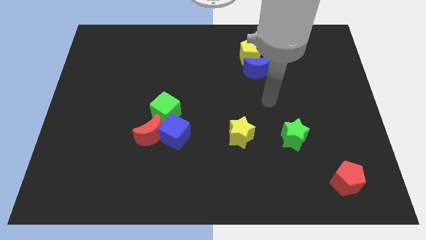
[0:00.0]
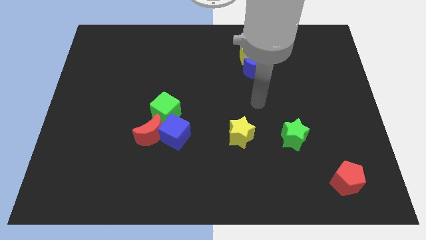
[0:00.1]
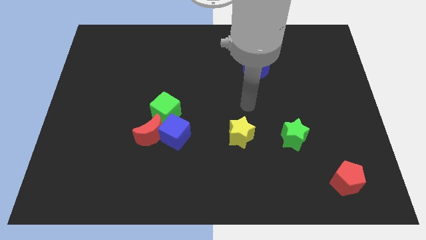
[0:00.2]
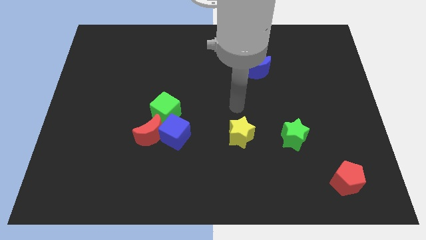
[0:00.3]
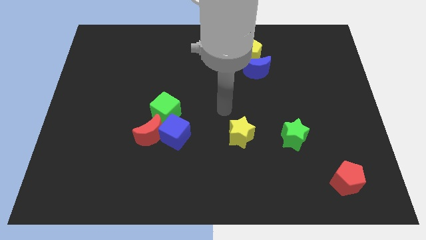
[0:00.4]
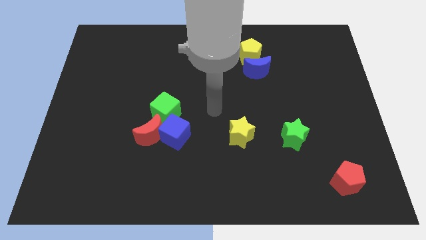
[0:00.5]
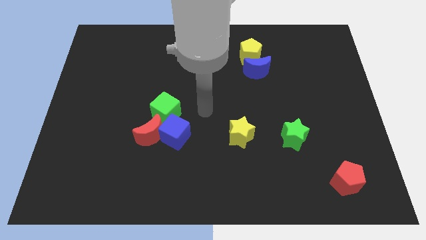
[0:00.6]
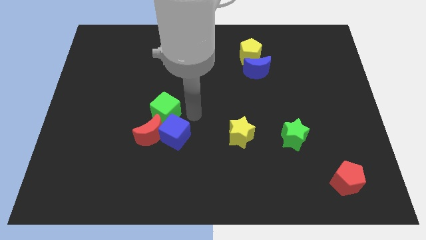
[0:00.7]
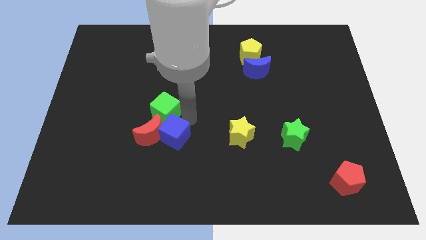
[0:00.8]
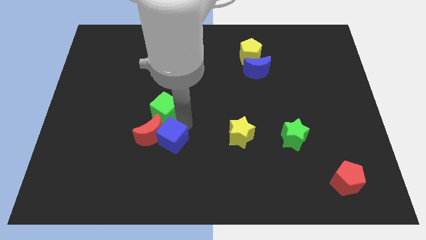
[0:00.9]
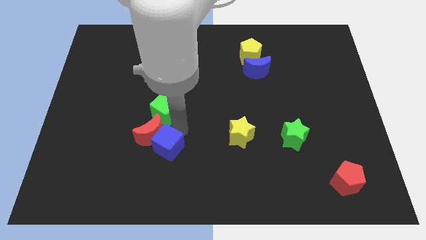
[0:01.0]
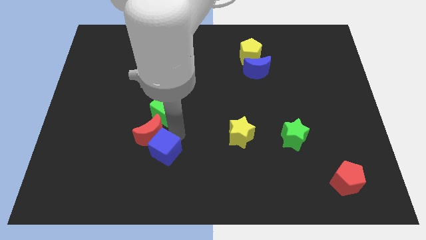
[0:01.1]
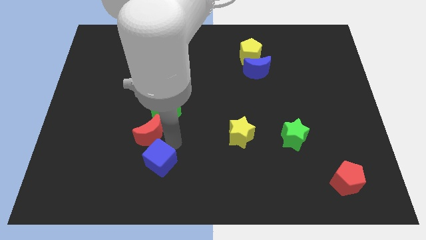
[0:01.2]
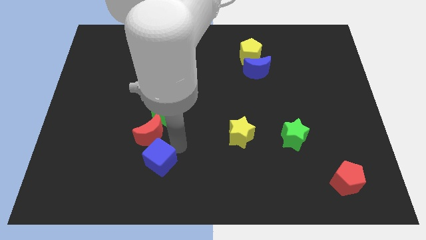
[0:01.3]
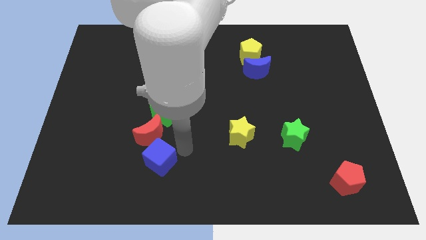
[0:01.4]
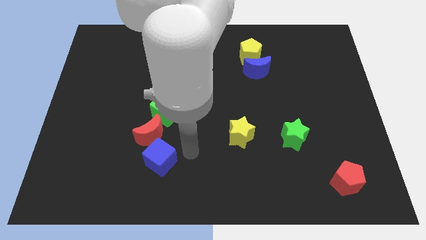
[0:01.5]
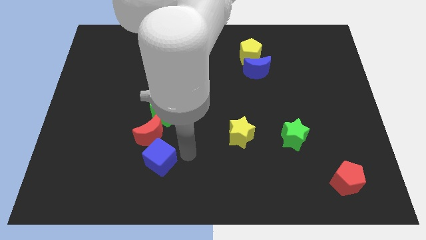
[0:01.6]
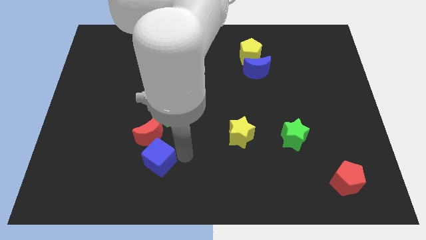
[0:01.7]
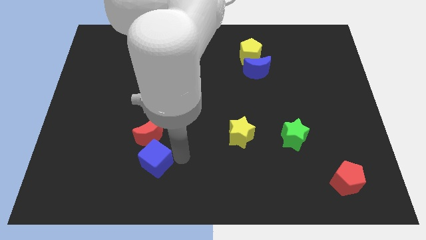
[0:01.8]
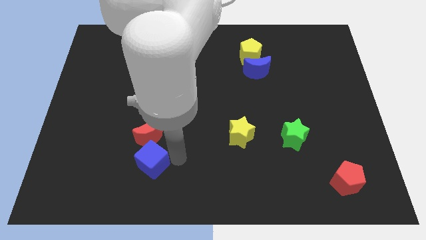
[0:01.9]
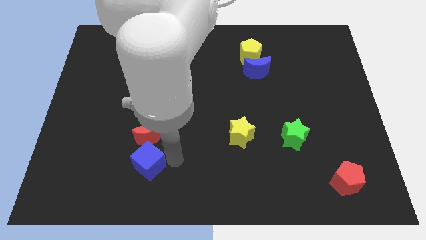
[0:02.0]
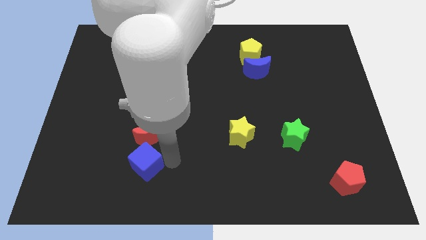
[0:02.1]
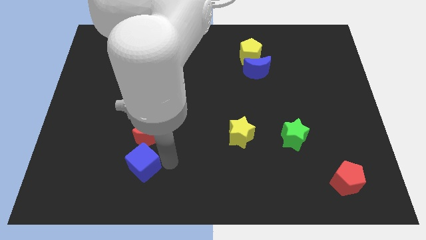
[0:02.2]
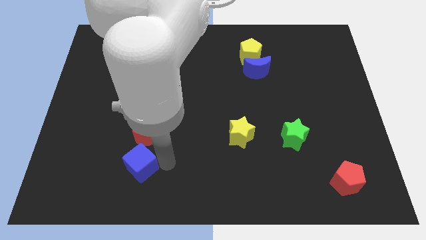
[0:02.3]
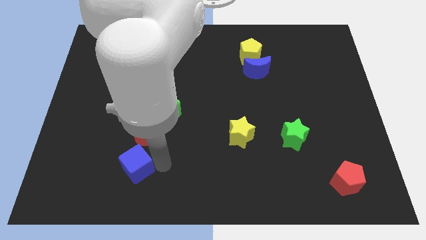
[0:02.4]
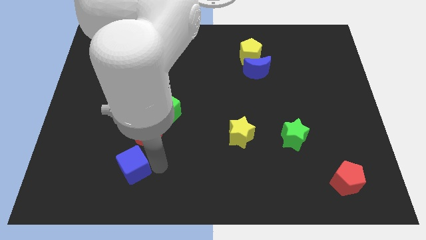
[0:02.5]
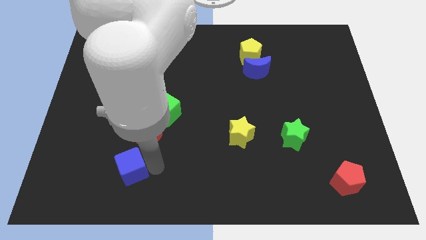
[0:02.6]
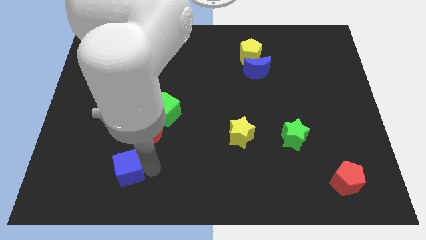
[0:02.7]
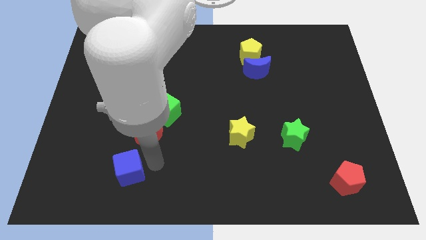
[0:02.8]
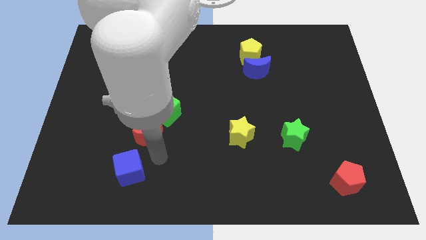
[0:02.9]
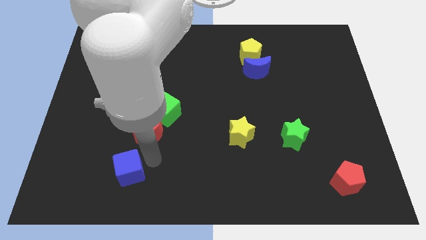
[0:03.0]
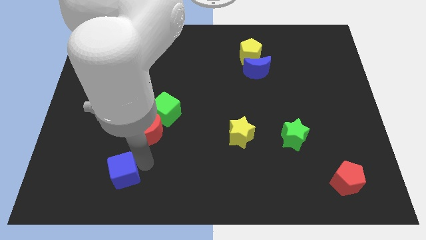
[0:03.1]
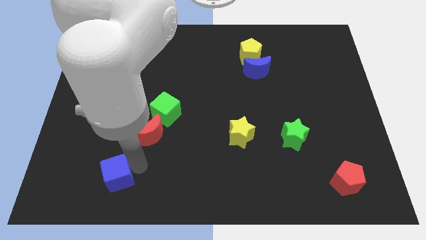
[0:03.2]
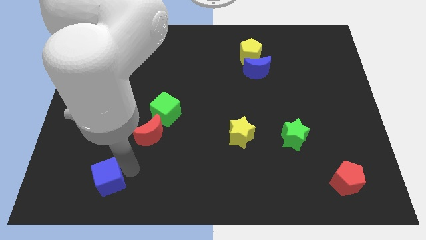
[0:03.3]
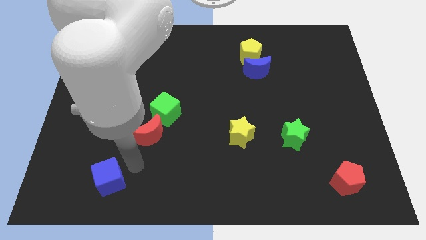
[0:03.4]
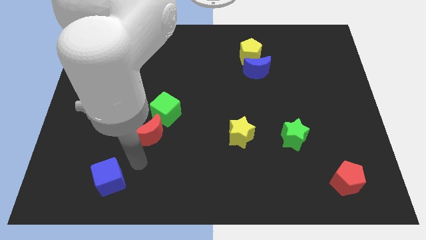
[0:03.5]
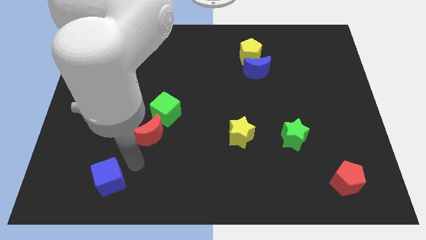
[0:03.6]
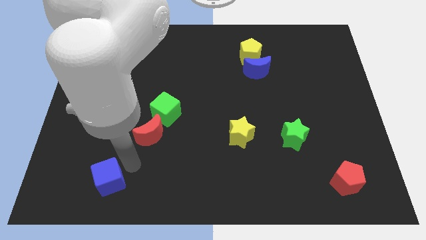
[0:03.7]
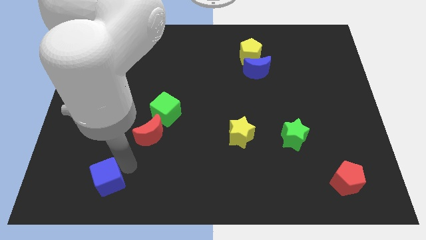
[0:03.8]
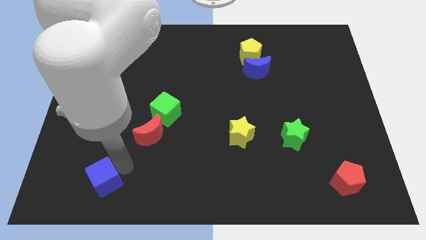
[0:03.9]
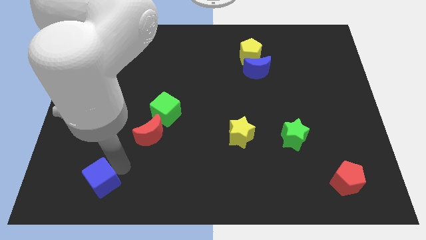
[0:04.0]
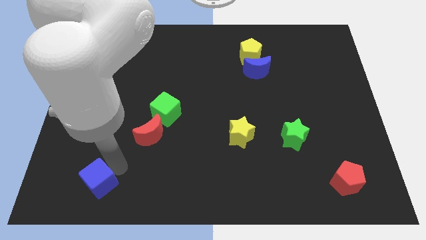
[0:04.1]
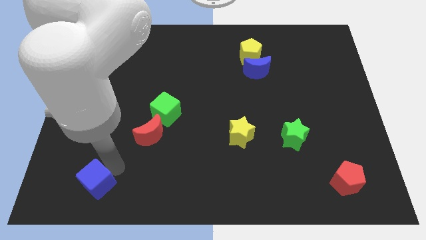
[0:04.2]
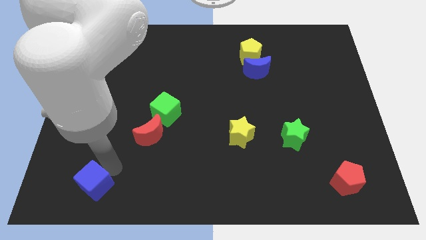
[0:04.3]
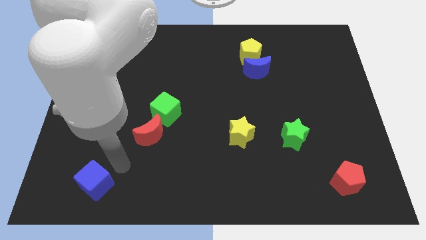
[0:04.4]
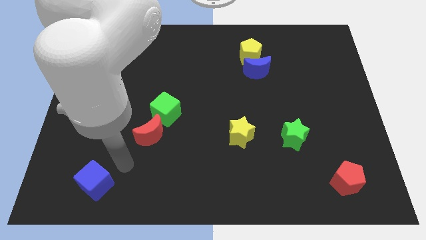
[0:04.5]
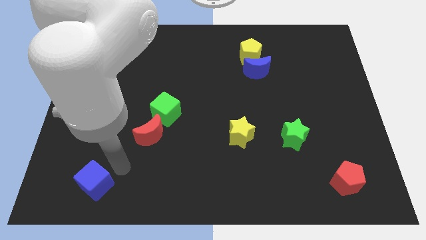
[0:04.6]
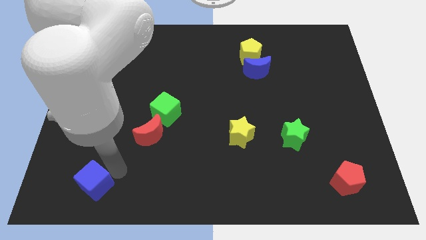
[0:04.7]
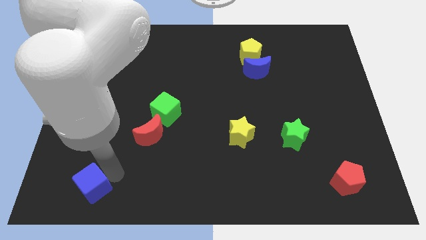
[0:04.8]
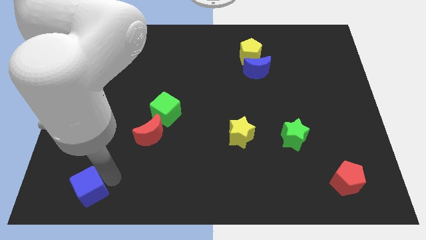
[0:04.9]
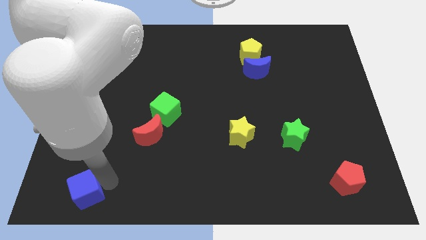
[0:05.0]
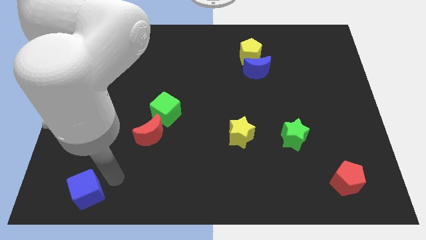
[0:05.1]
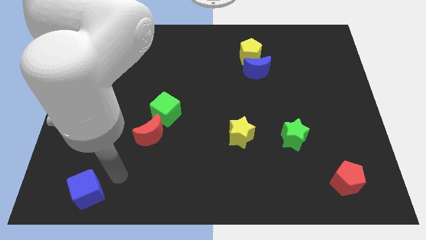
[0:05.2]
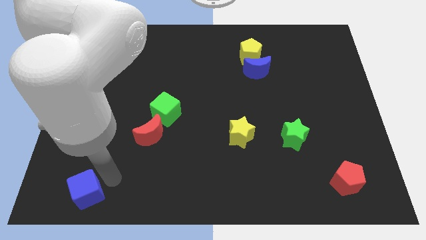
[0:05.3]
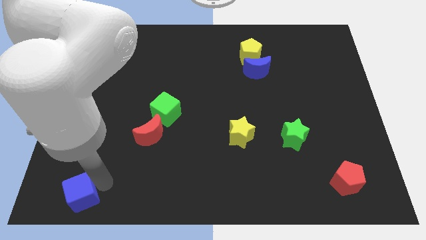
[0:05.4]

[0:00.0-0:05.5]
put the blue cube to the bottom left corner

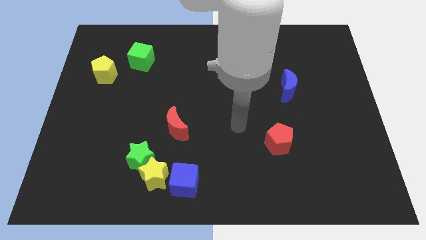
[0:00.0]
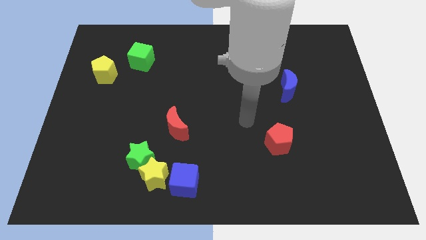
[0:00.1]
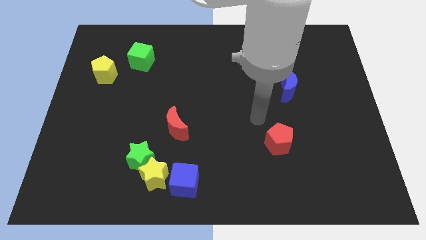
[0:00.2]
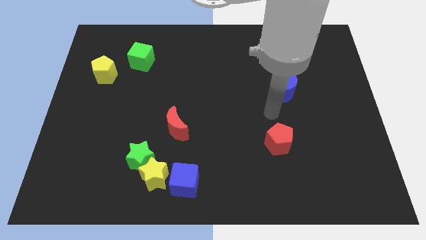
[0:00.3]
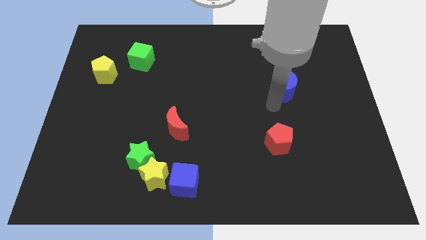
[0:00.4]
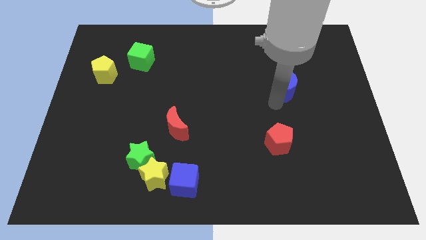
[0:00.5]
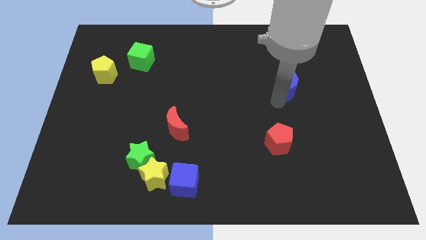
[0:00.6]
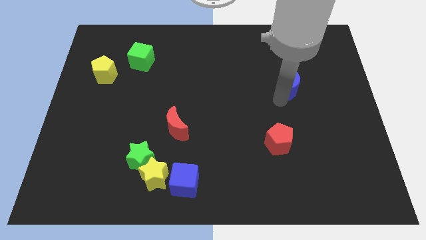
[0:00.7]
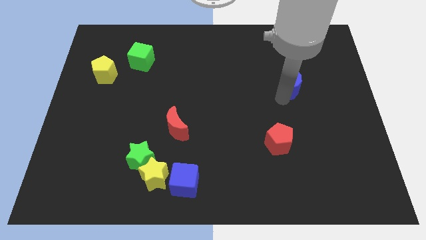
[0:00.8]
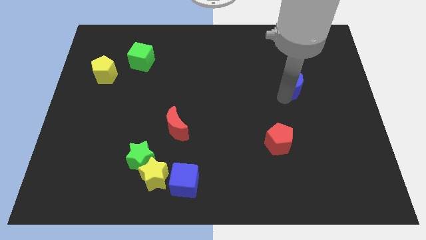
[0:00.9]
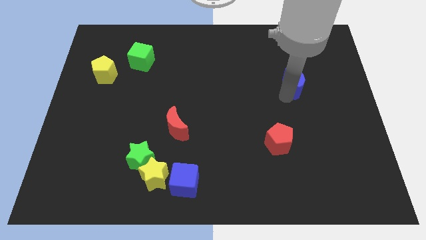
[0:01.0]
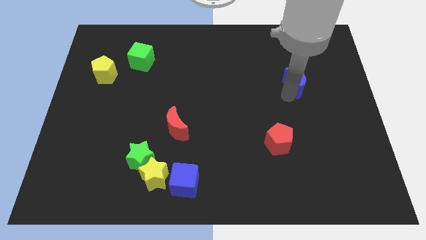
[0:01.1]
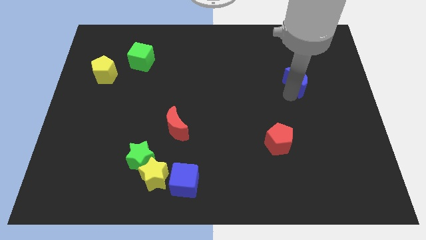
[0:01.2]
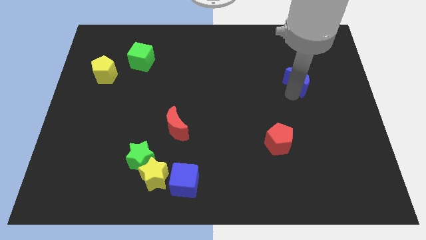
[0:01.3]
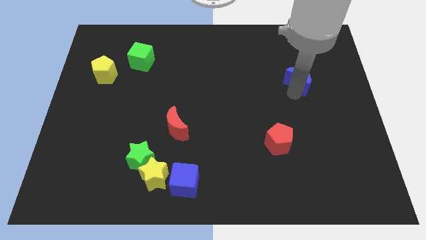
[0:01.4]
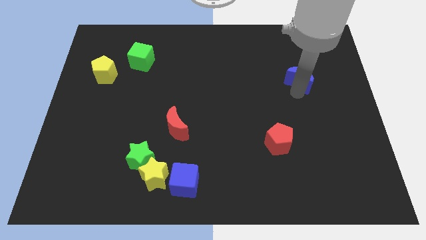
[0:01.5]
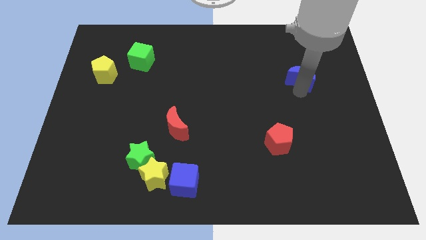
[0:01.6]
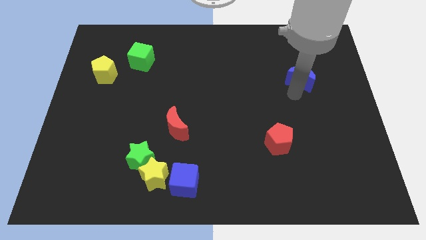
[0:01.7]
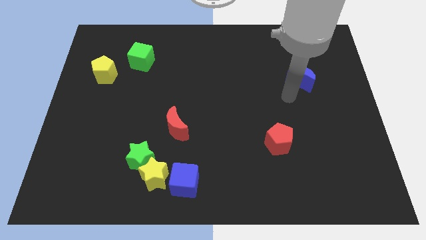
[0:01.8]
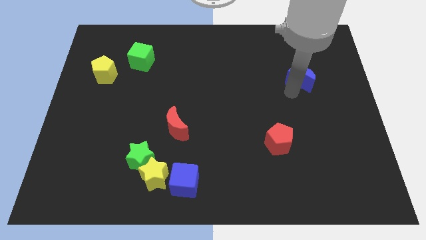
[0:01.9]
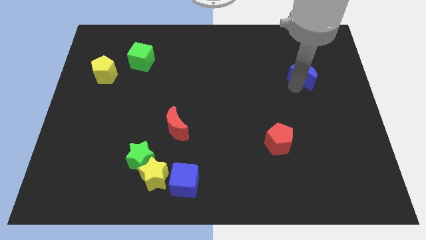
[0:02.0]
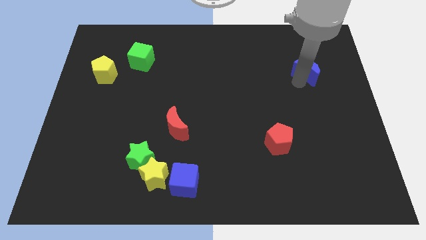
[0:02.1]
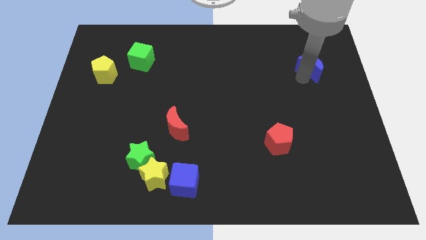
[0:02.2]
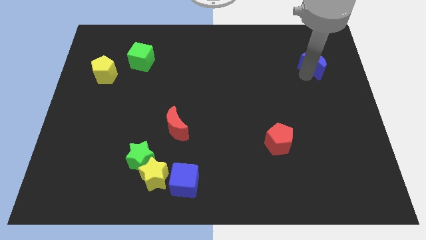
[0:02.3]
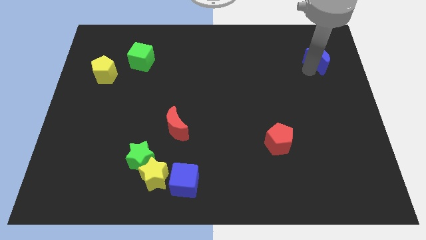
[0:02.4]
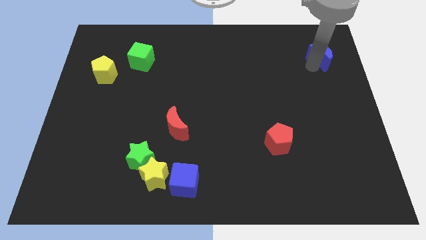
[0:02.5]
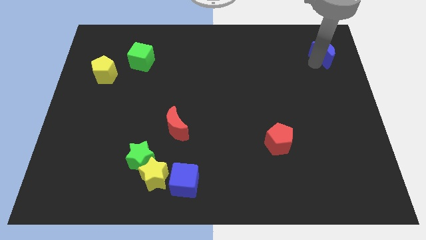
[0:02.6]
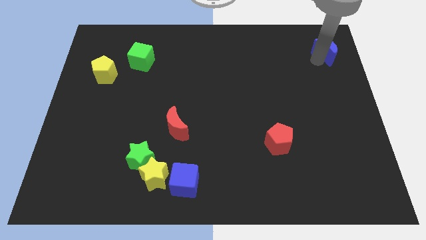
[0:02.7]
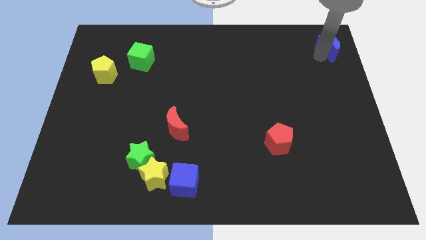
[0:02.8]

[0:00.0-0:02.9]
slide the blue moon to the top right corner
